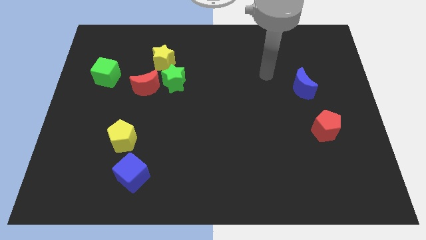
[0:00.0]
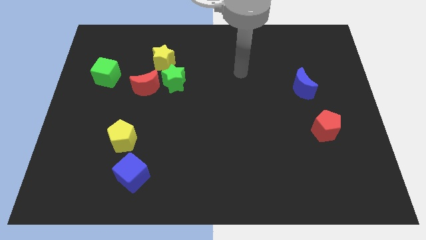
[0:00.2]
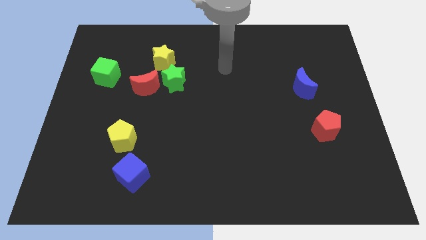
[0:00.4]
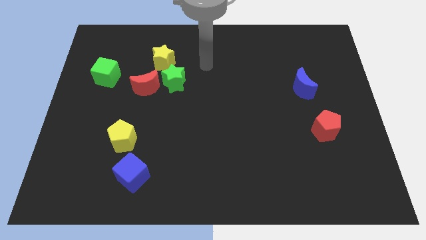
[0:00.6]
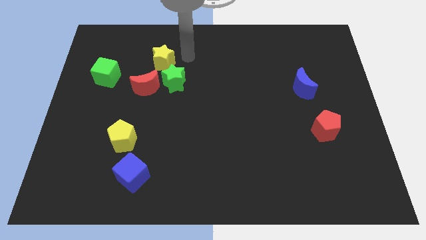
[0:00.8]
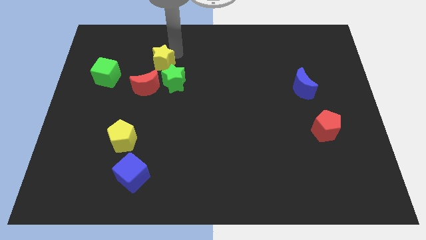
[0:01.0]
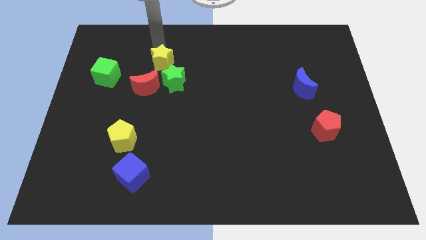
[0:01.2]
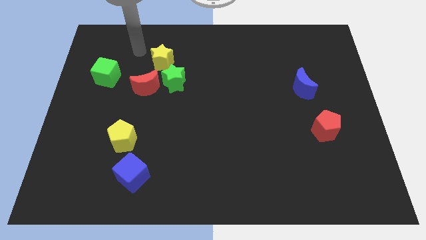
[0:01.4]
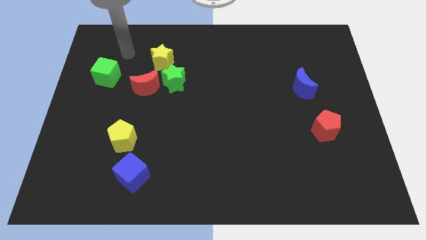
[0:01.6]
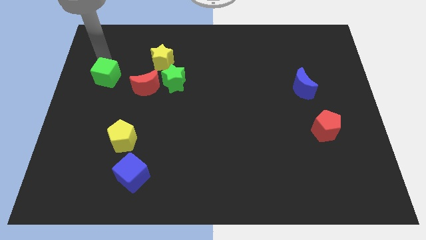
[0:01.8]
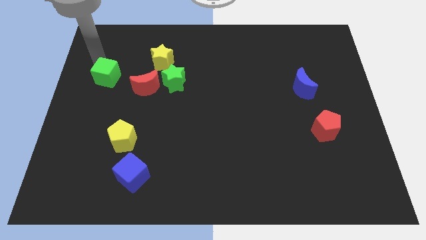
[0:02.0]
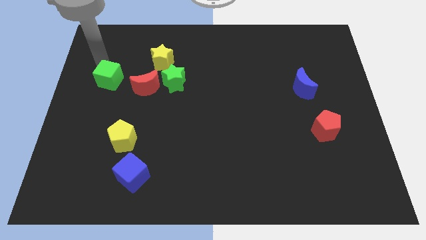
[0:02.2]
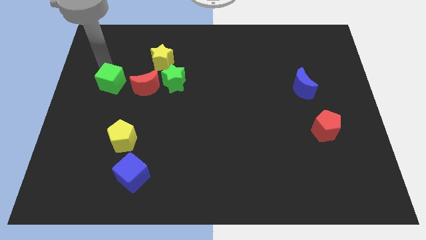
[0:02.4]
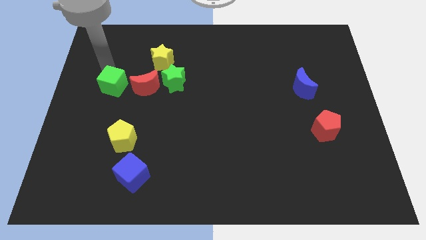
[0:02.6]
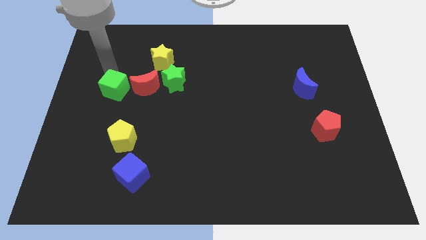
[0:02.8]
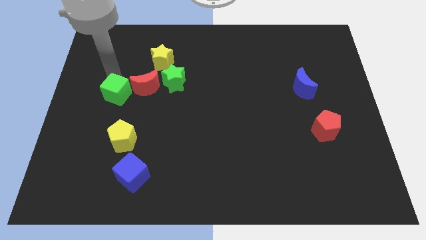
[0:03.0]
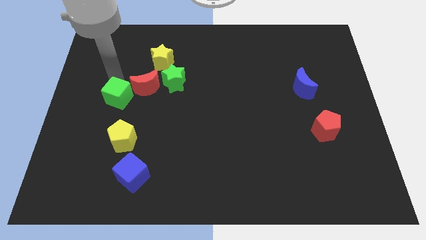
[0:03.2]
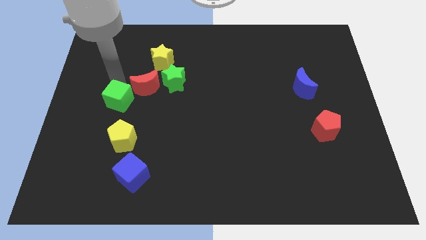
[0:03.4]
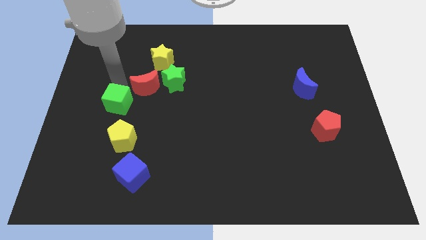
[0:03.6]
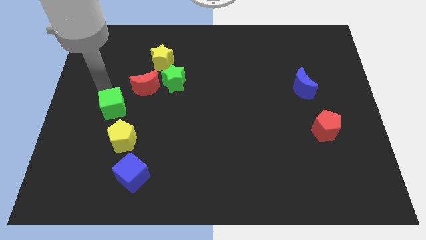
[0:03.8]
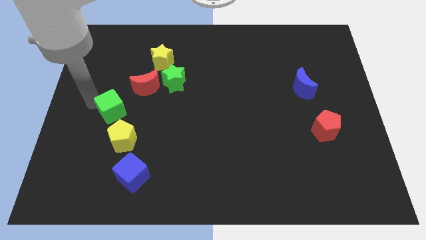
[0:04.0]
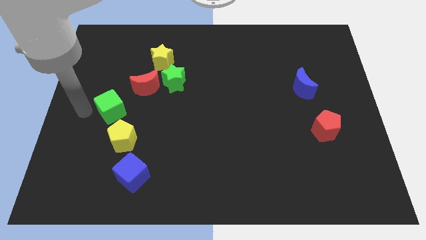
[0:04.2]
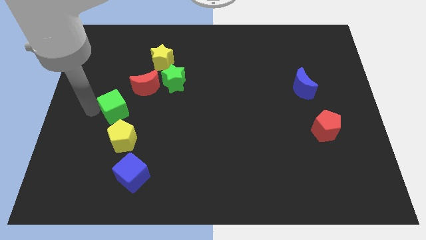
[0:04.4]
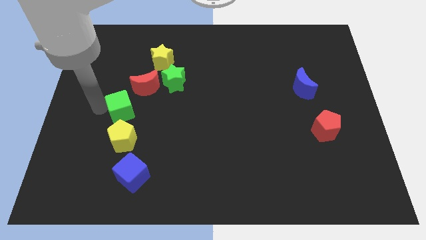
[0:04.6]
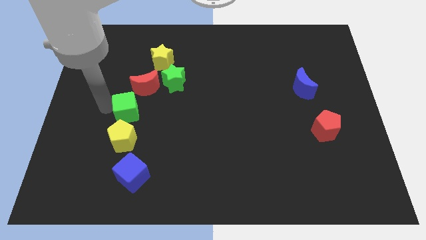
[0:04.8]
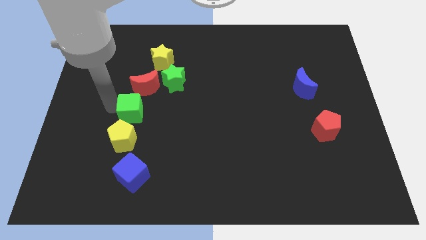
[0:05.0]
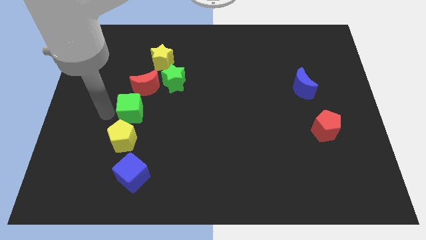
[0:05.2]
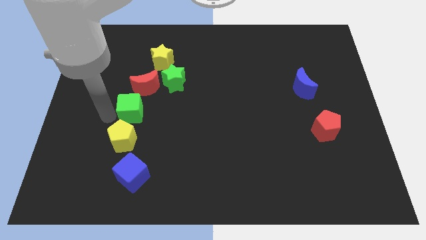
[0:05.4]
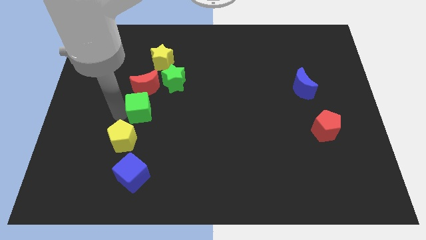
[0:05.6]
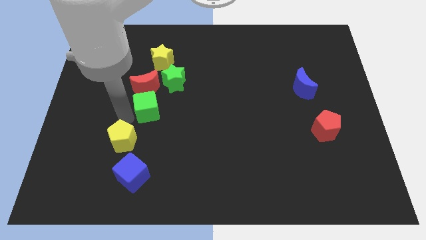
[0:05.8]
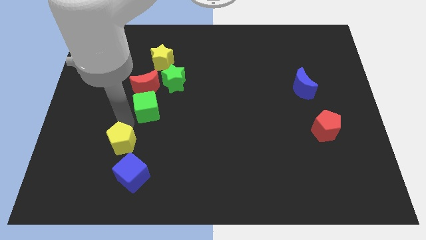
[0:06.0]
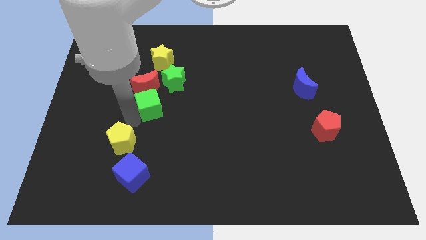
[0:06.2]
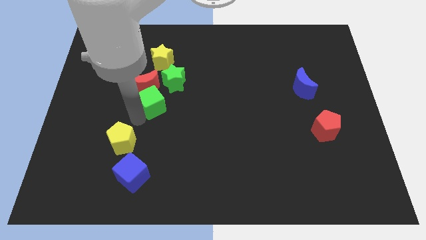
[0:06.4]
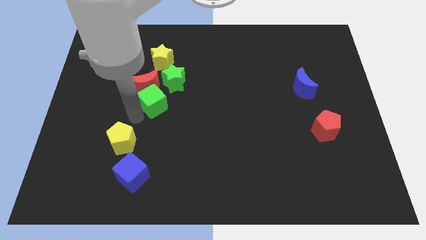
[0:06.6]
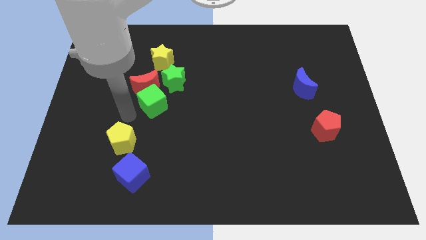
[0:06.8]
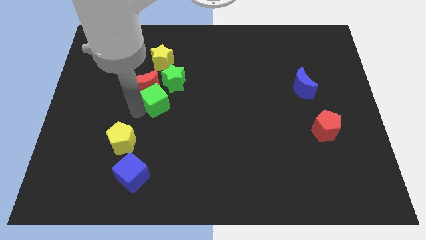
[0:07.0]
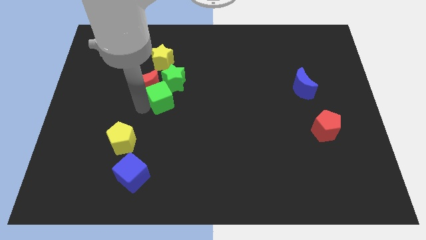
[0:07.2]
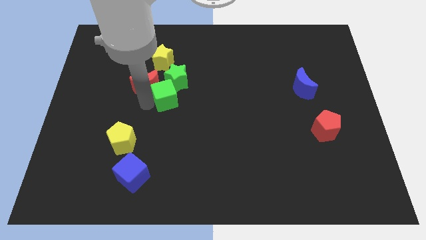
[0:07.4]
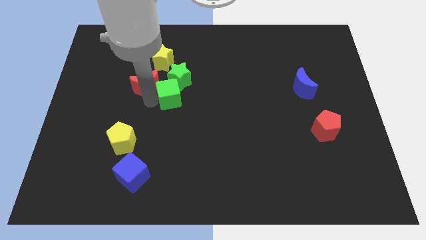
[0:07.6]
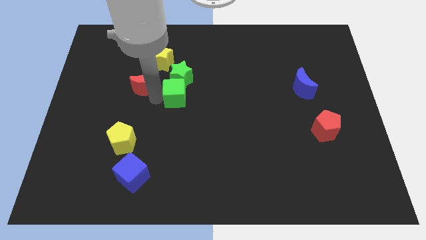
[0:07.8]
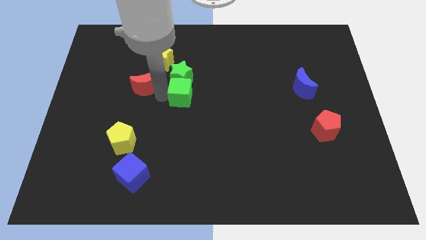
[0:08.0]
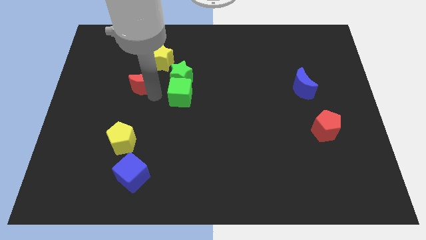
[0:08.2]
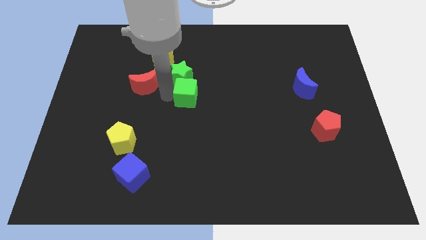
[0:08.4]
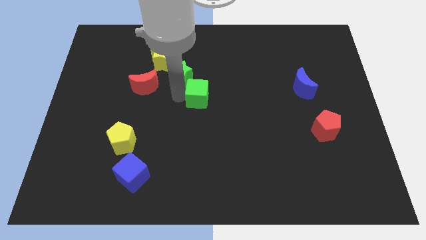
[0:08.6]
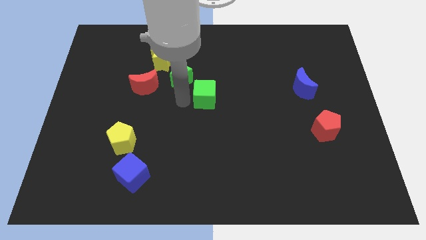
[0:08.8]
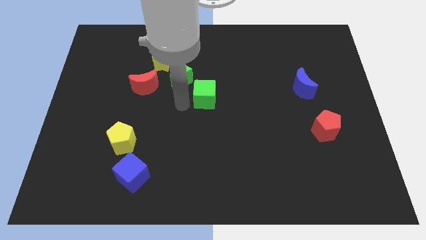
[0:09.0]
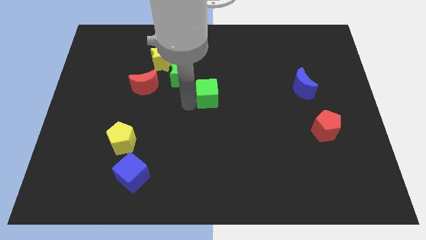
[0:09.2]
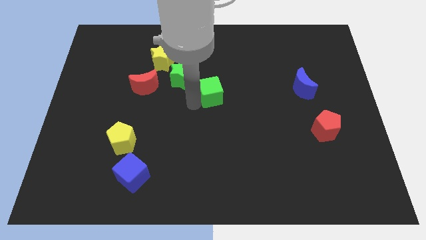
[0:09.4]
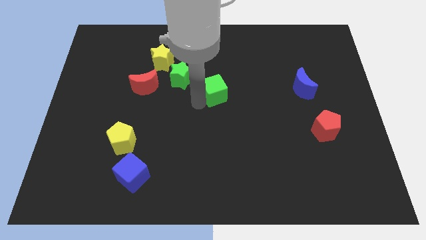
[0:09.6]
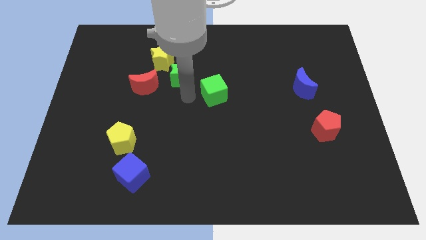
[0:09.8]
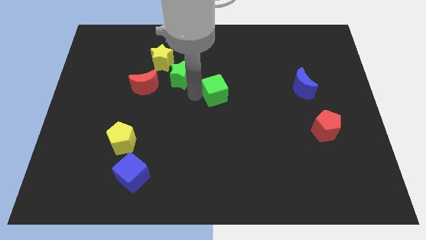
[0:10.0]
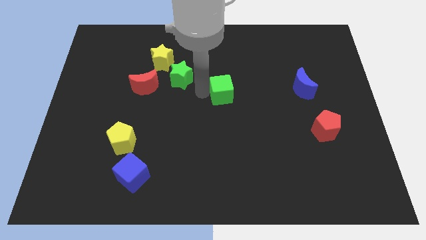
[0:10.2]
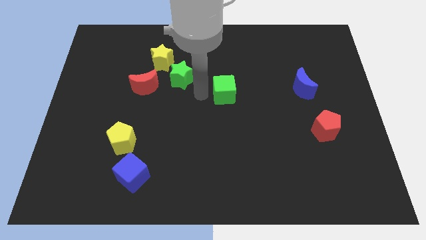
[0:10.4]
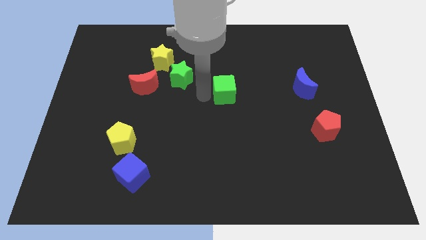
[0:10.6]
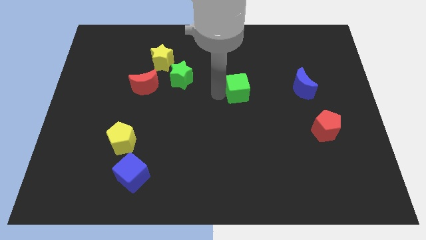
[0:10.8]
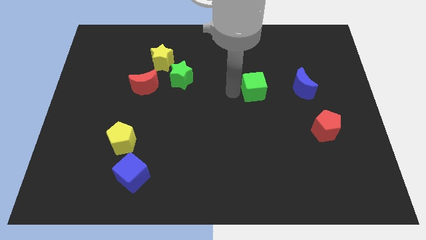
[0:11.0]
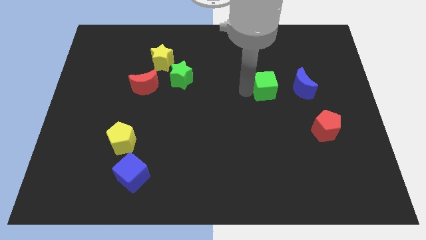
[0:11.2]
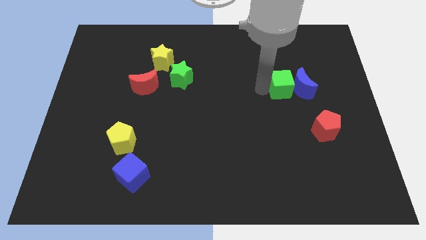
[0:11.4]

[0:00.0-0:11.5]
put the green cube next to the blue moon

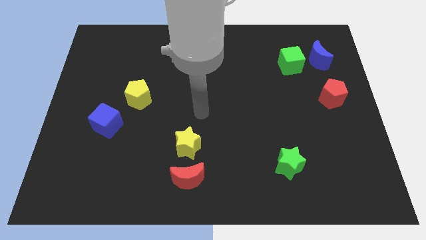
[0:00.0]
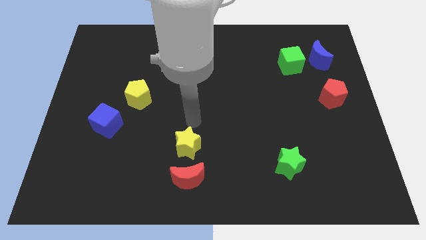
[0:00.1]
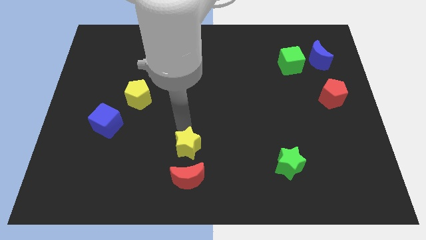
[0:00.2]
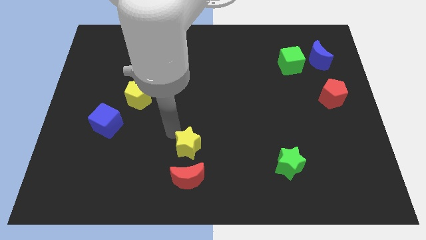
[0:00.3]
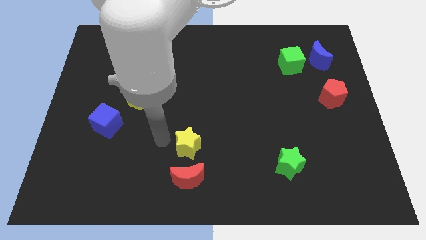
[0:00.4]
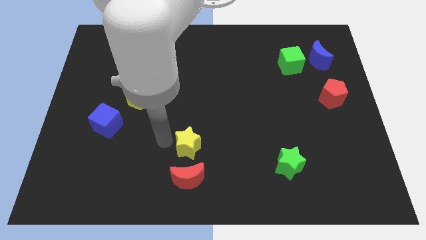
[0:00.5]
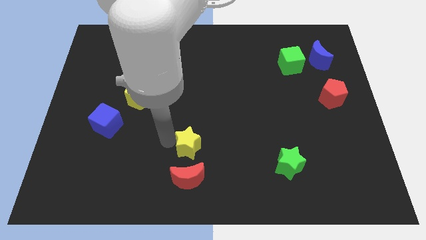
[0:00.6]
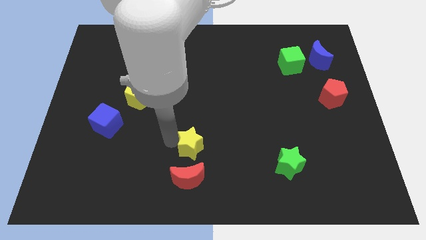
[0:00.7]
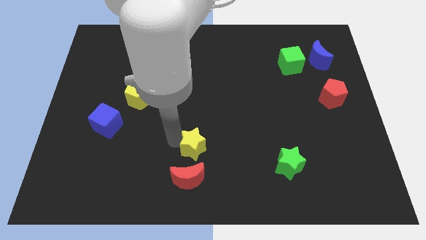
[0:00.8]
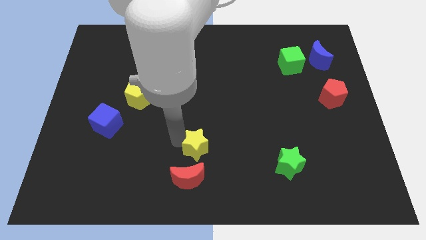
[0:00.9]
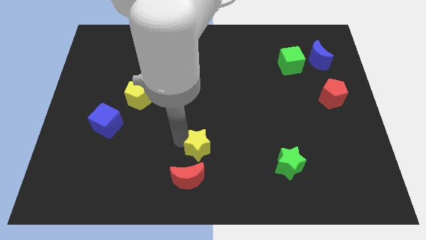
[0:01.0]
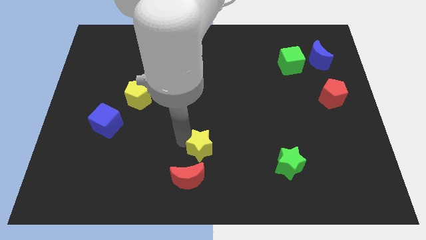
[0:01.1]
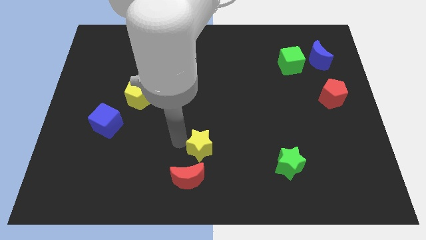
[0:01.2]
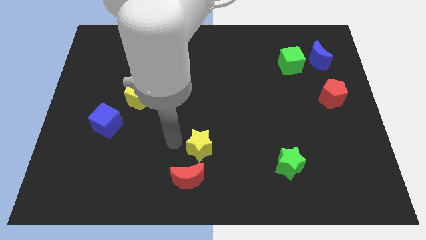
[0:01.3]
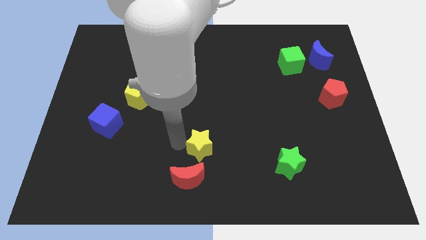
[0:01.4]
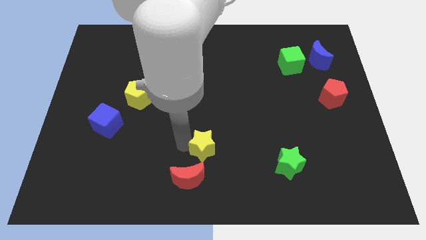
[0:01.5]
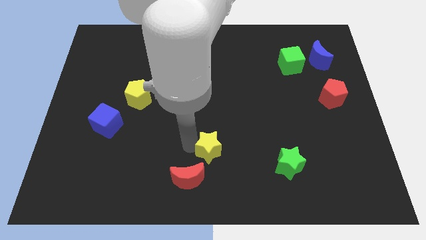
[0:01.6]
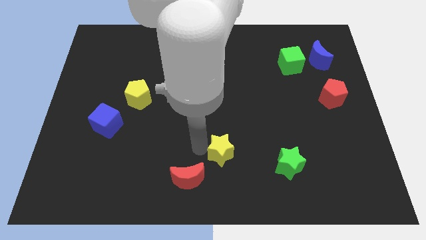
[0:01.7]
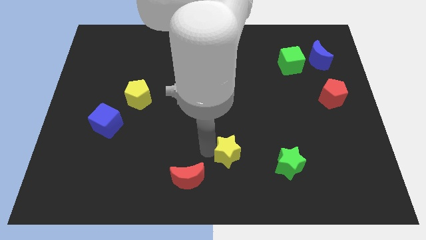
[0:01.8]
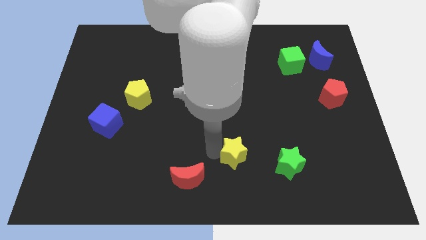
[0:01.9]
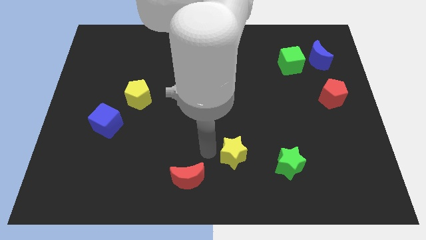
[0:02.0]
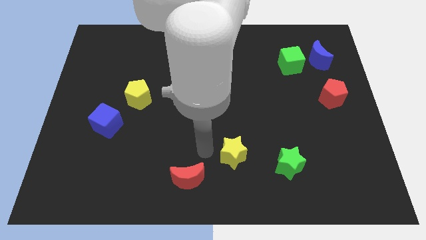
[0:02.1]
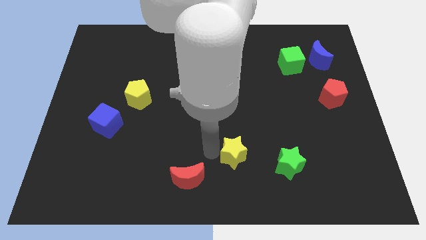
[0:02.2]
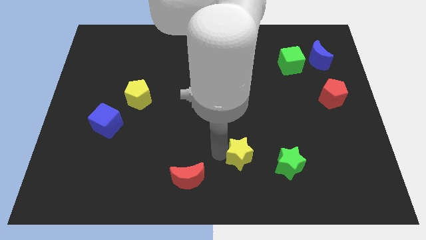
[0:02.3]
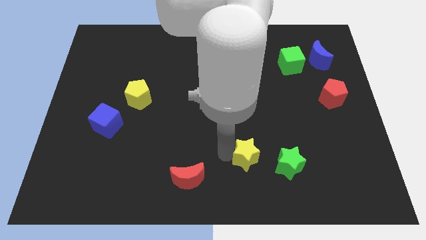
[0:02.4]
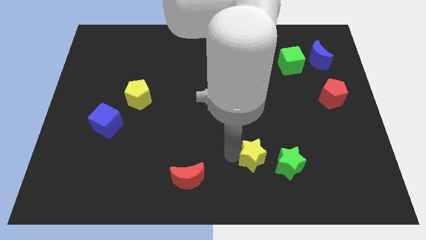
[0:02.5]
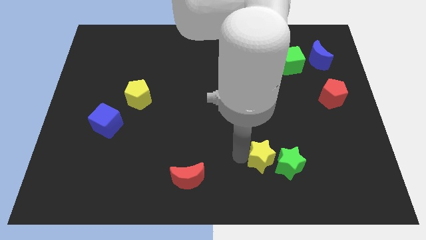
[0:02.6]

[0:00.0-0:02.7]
slide the yellow star next to the green star
